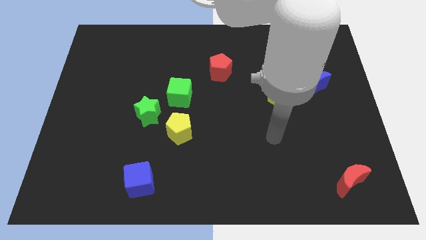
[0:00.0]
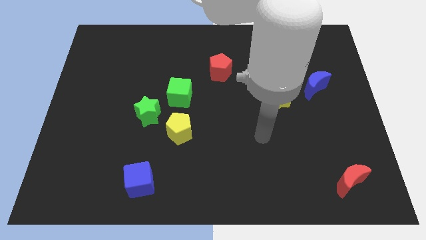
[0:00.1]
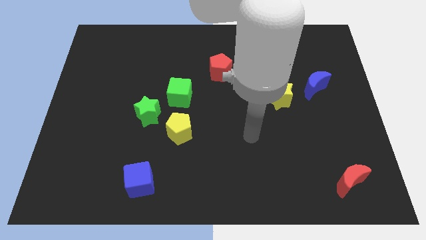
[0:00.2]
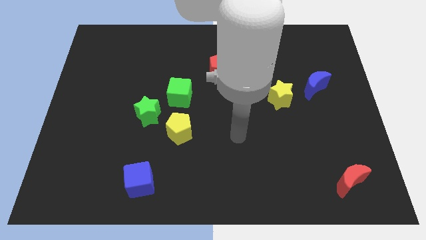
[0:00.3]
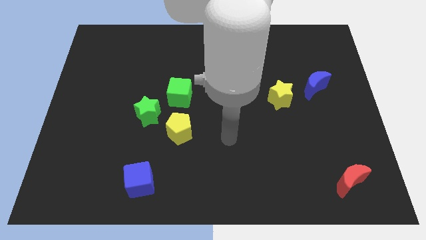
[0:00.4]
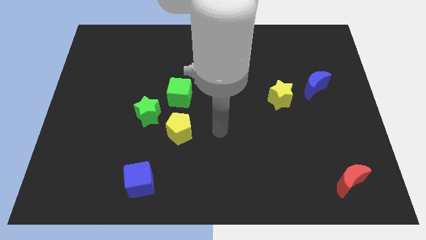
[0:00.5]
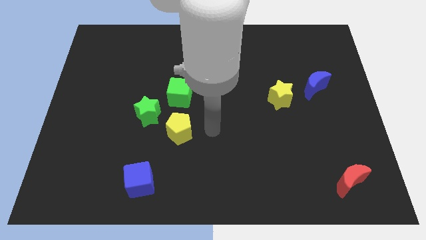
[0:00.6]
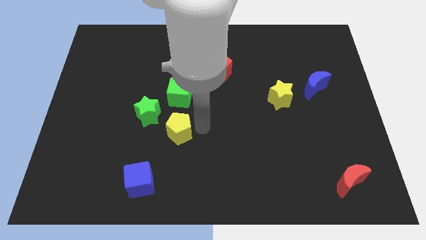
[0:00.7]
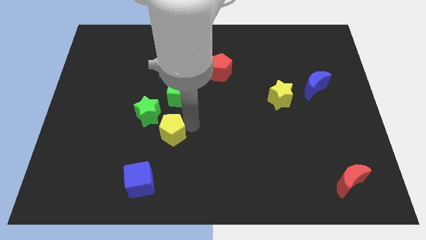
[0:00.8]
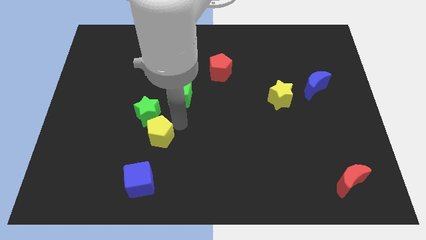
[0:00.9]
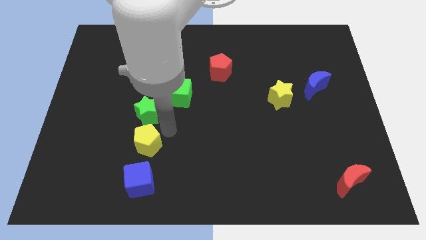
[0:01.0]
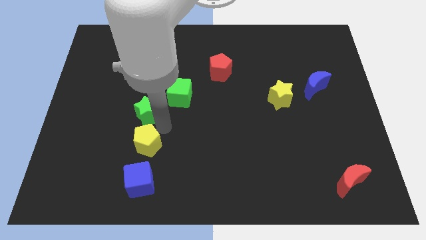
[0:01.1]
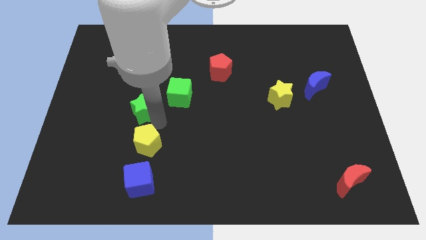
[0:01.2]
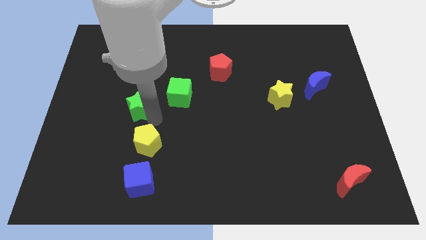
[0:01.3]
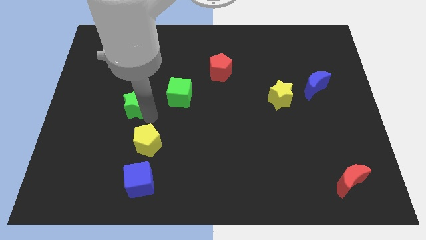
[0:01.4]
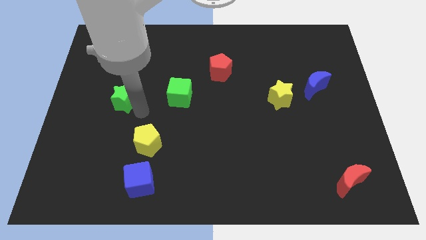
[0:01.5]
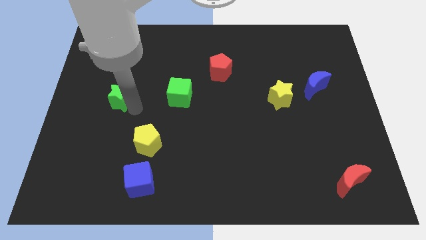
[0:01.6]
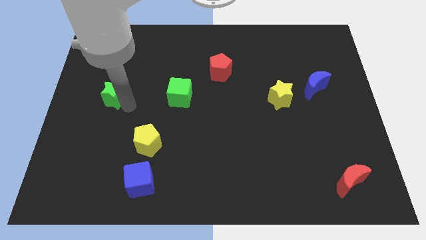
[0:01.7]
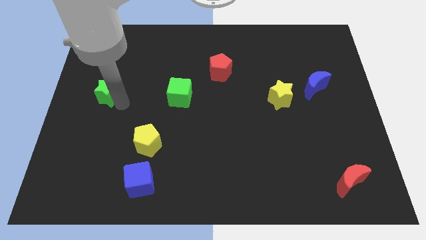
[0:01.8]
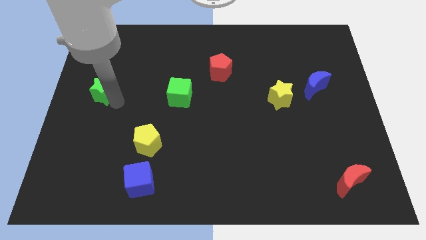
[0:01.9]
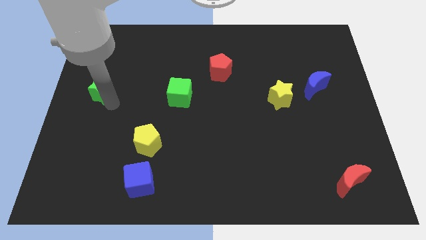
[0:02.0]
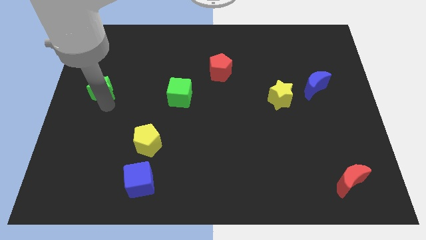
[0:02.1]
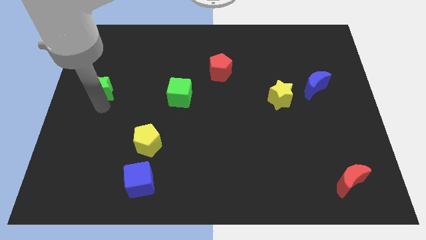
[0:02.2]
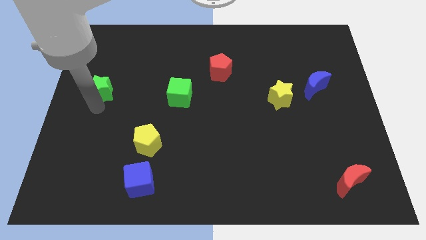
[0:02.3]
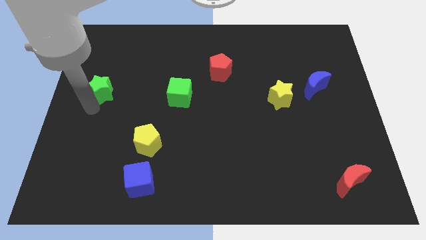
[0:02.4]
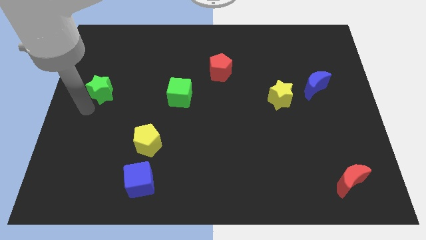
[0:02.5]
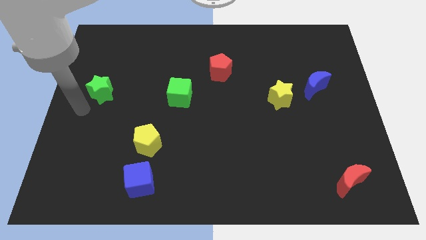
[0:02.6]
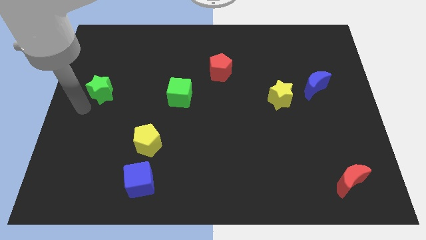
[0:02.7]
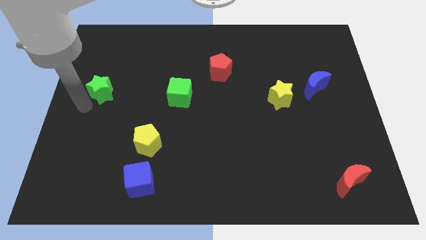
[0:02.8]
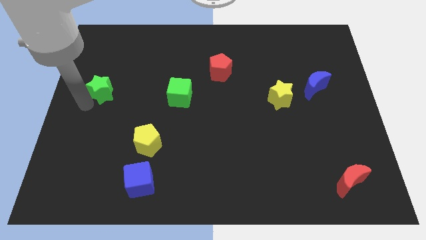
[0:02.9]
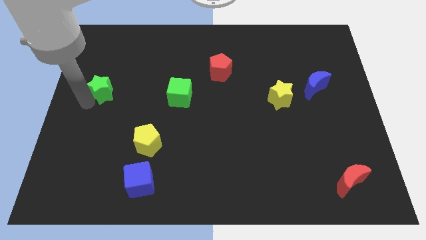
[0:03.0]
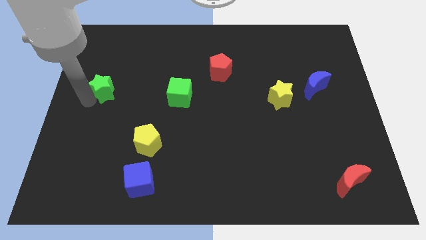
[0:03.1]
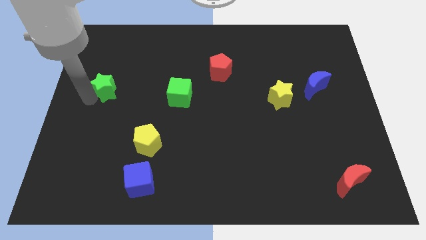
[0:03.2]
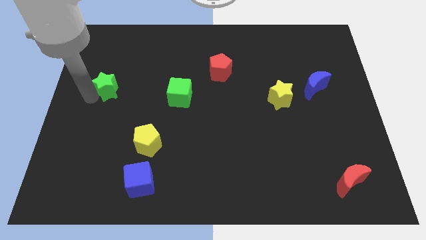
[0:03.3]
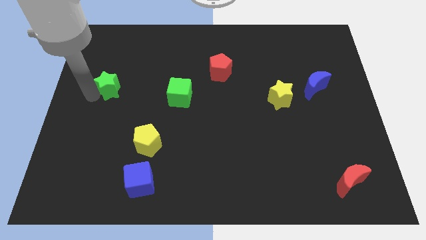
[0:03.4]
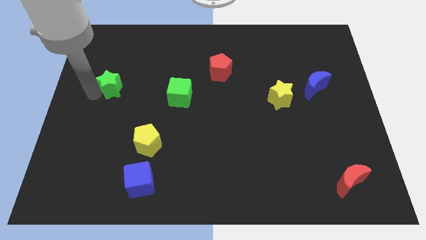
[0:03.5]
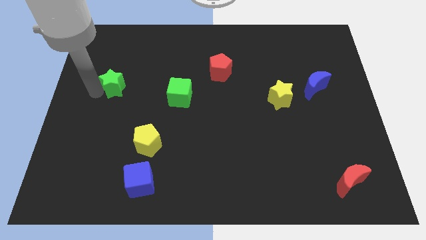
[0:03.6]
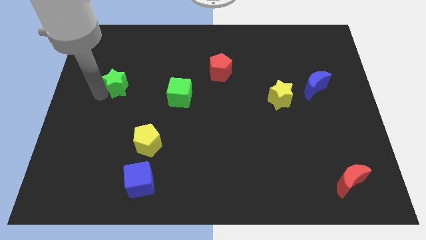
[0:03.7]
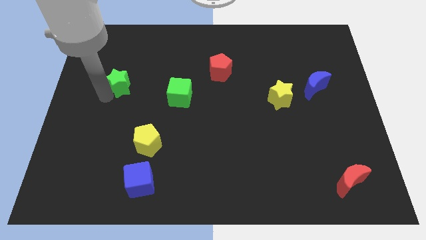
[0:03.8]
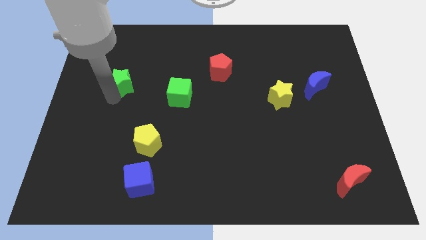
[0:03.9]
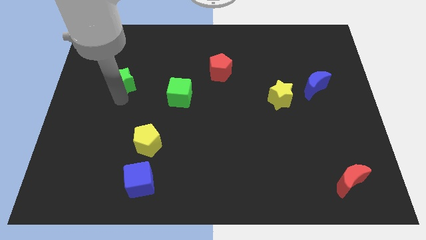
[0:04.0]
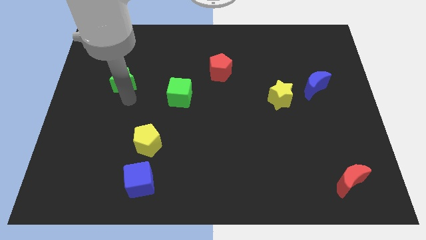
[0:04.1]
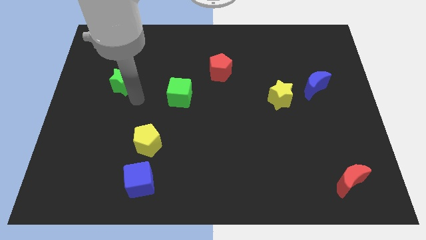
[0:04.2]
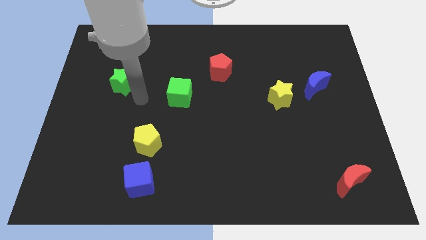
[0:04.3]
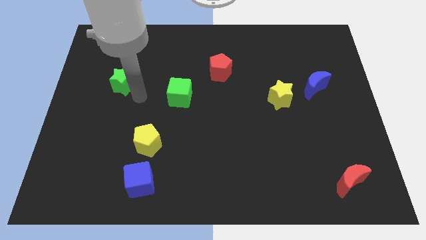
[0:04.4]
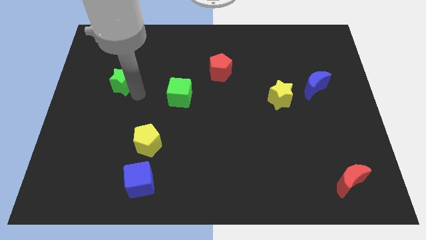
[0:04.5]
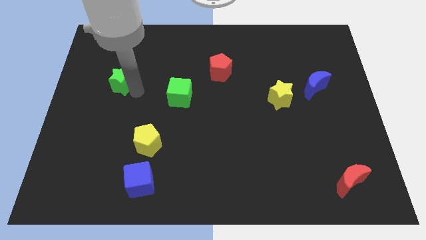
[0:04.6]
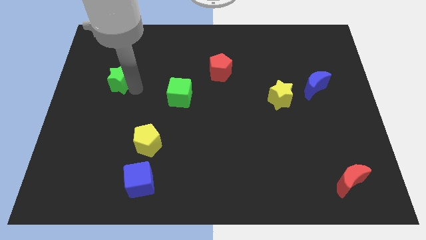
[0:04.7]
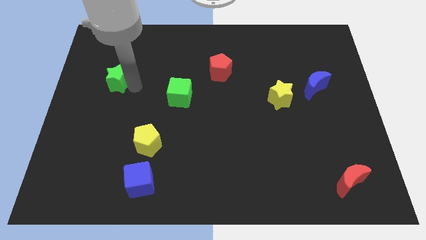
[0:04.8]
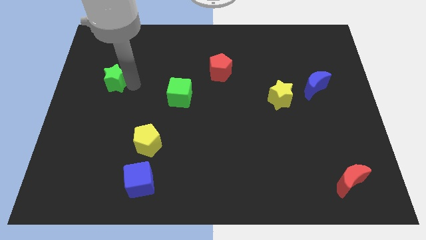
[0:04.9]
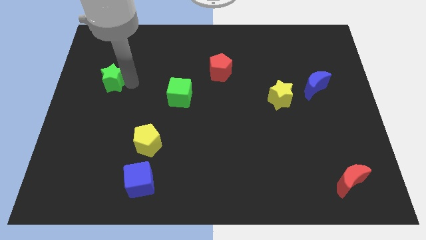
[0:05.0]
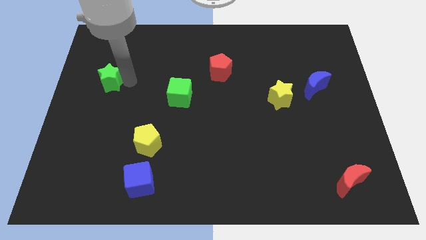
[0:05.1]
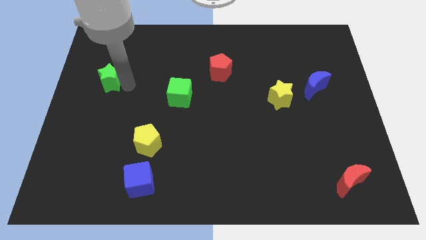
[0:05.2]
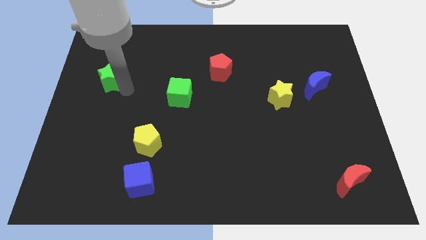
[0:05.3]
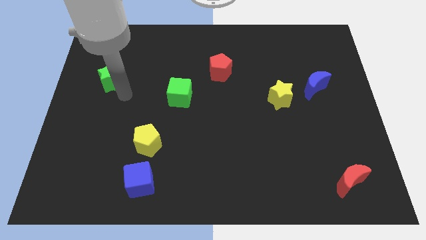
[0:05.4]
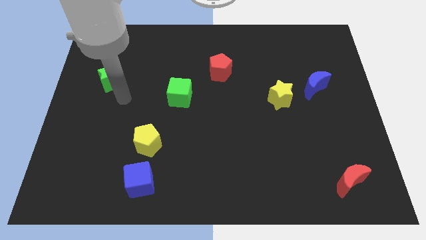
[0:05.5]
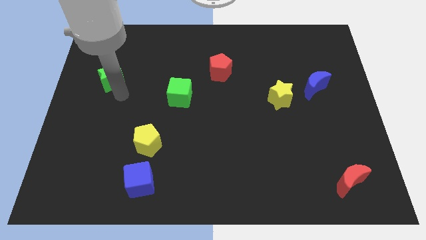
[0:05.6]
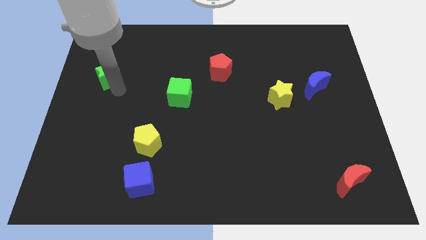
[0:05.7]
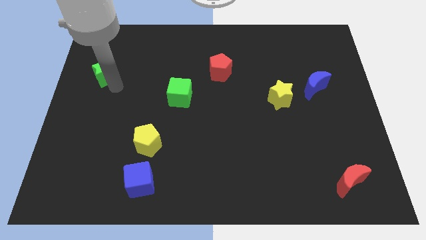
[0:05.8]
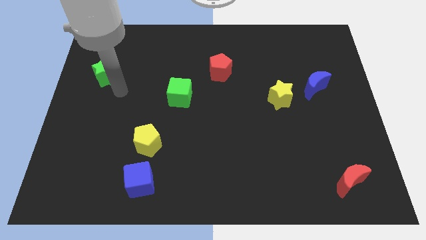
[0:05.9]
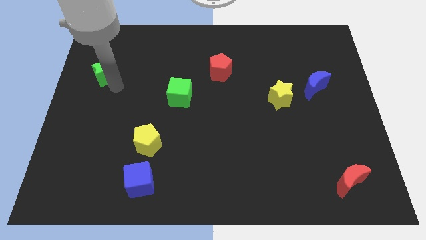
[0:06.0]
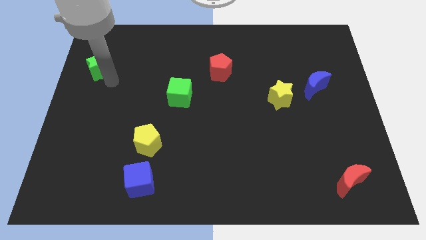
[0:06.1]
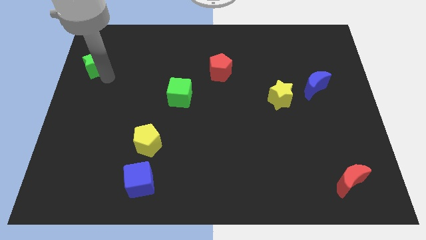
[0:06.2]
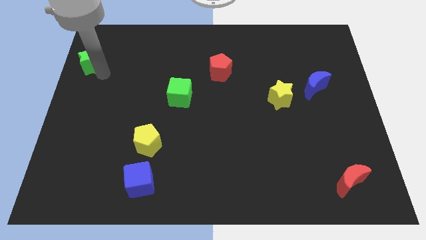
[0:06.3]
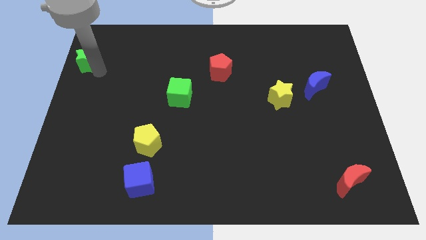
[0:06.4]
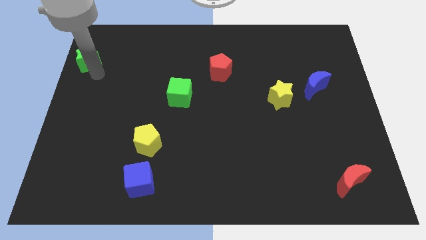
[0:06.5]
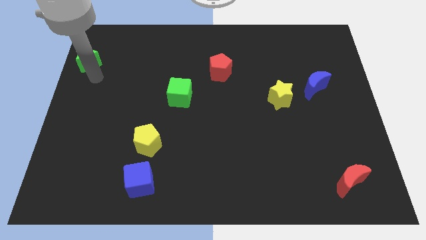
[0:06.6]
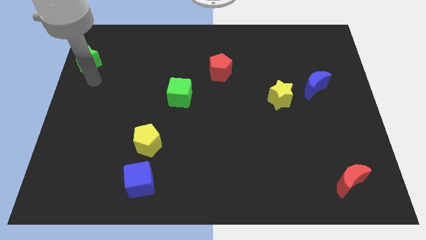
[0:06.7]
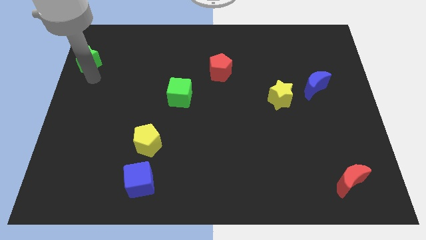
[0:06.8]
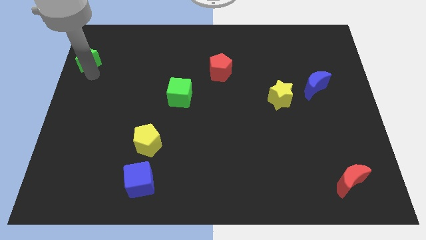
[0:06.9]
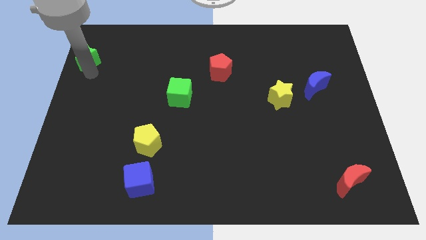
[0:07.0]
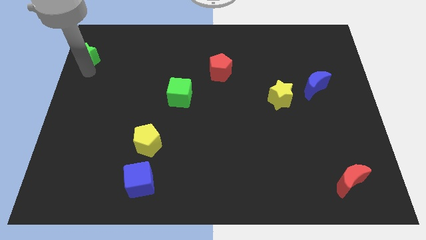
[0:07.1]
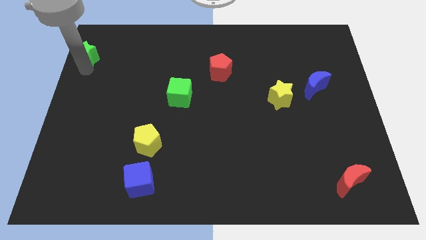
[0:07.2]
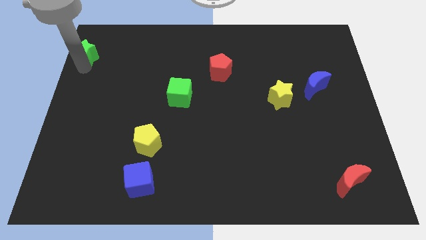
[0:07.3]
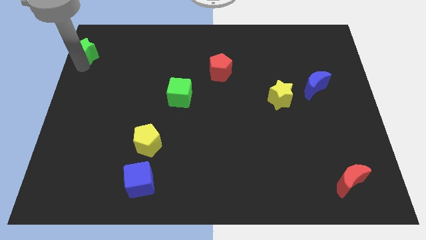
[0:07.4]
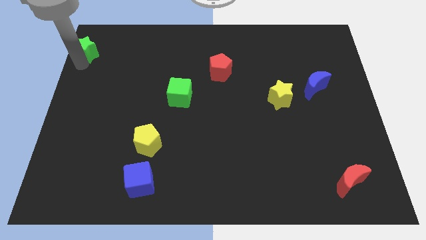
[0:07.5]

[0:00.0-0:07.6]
move the green star to the top left
